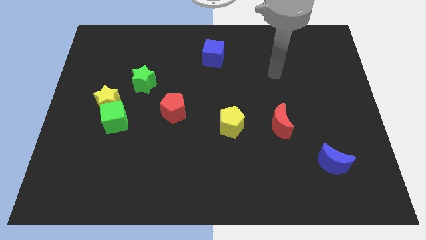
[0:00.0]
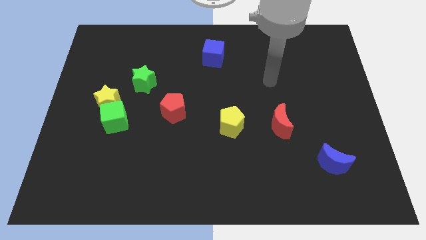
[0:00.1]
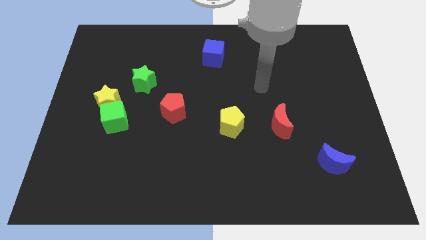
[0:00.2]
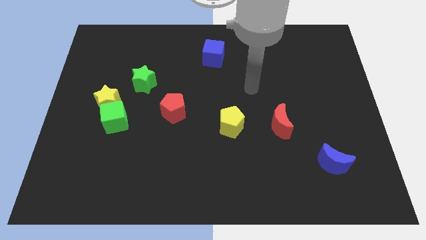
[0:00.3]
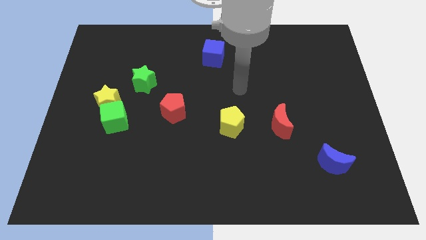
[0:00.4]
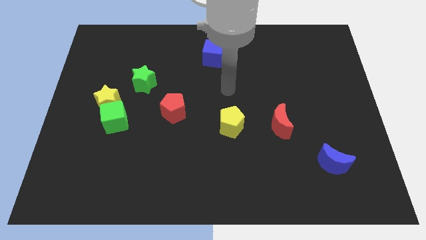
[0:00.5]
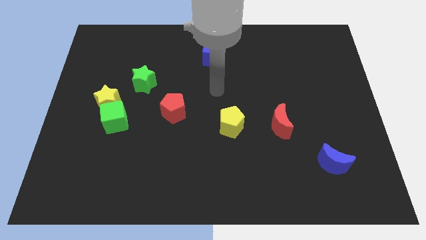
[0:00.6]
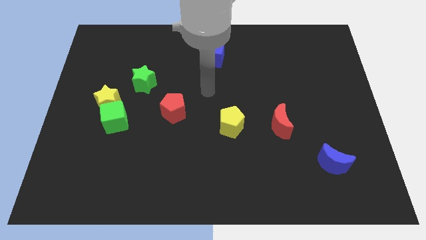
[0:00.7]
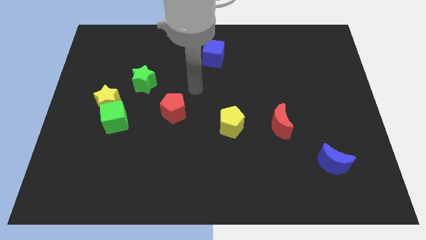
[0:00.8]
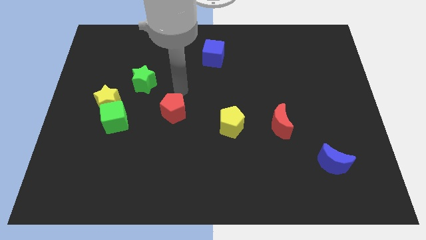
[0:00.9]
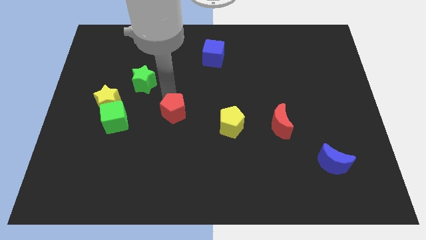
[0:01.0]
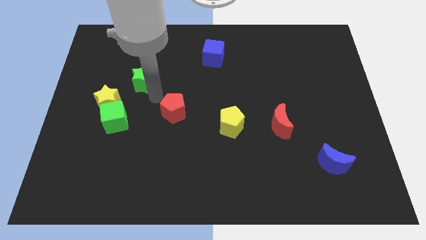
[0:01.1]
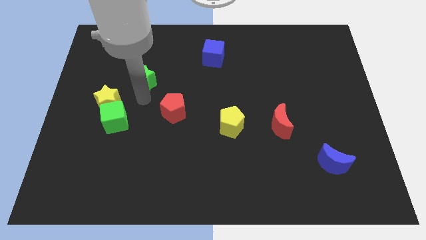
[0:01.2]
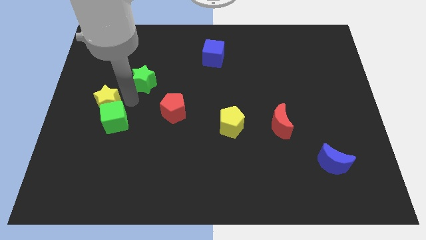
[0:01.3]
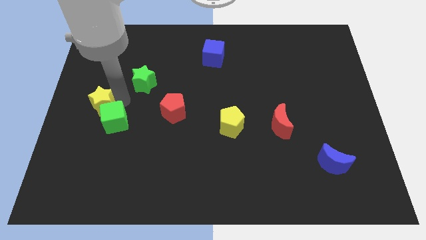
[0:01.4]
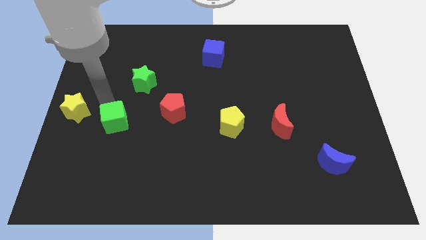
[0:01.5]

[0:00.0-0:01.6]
separate the green cube from the yellow star

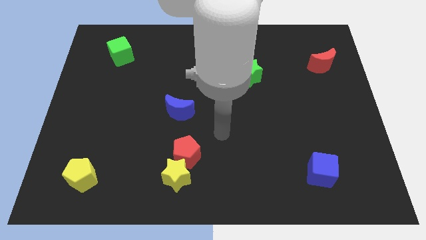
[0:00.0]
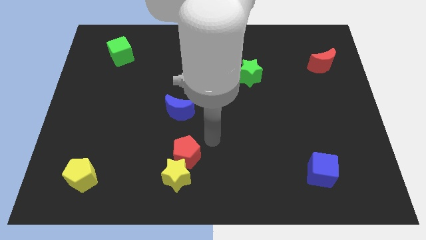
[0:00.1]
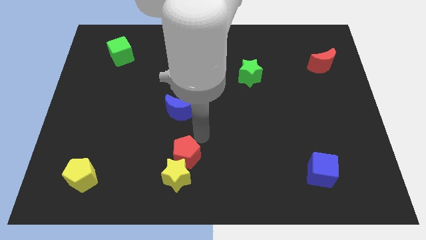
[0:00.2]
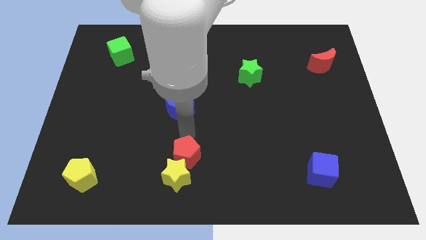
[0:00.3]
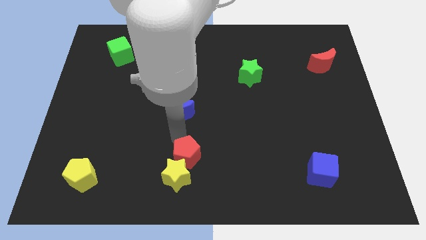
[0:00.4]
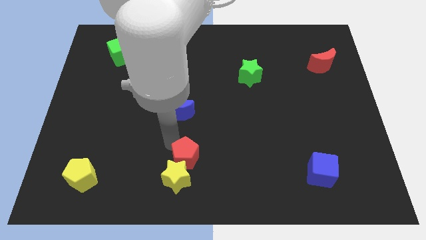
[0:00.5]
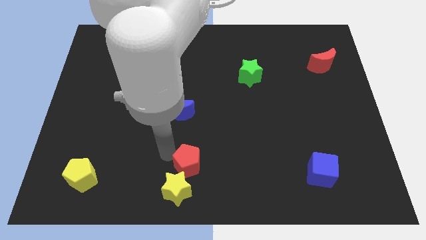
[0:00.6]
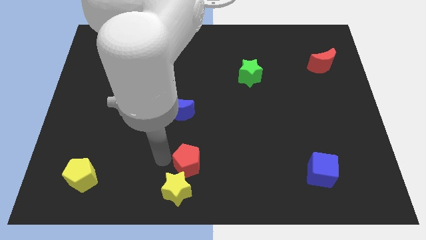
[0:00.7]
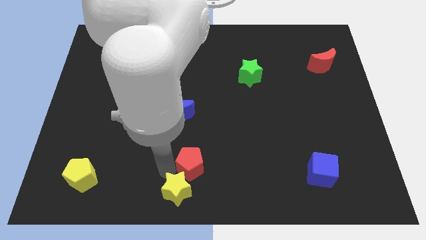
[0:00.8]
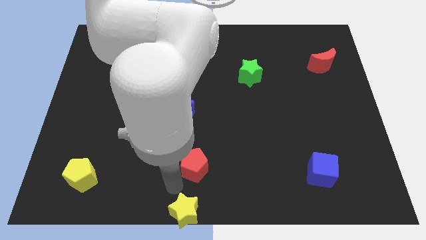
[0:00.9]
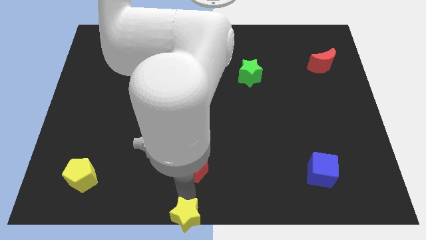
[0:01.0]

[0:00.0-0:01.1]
move the red pentagon away from the yellow star

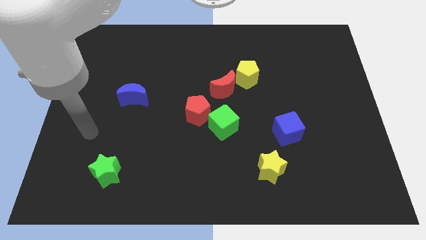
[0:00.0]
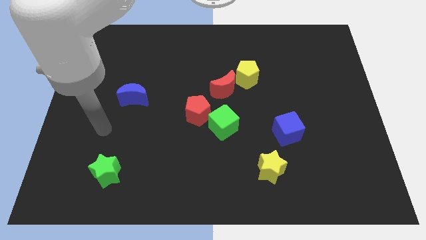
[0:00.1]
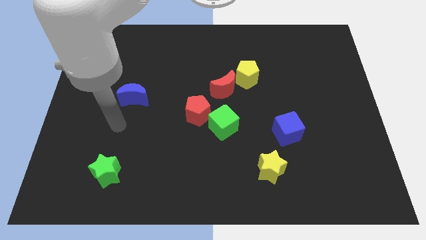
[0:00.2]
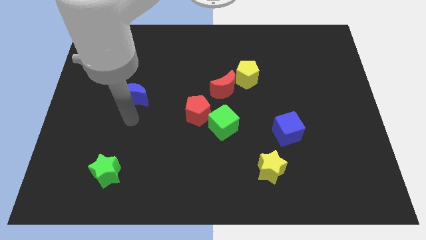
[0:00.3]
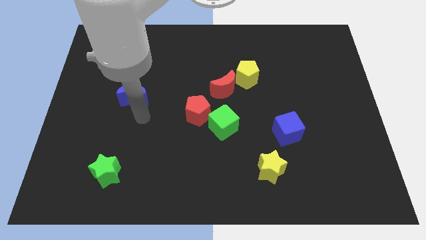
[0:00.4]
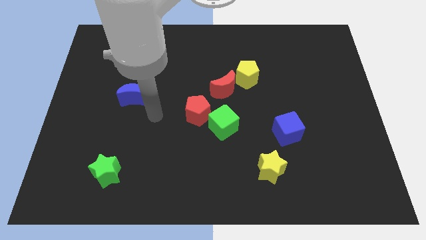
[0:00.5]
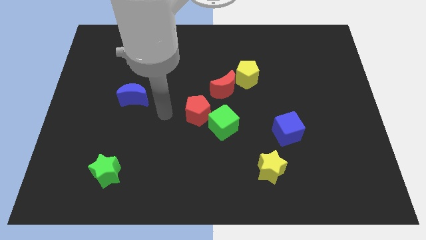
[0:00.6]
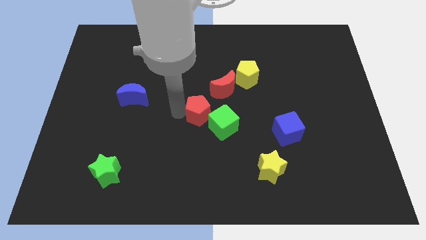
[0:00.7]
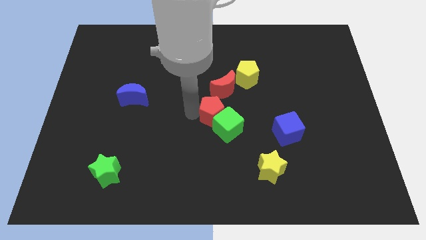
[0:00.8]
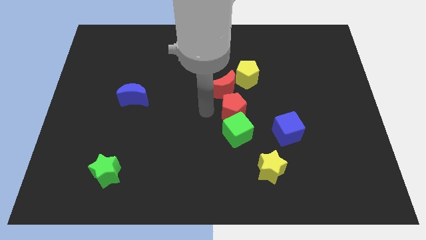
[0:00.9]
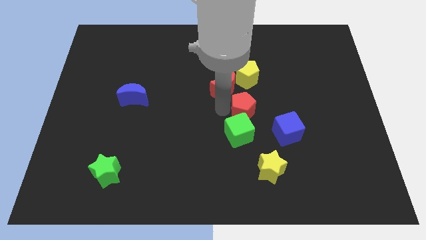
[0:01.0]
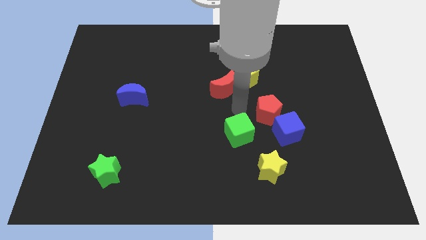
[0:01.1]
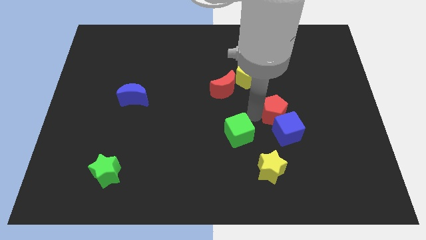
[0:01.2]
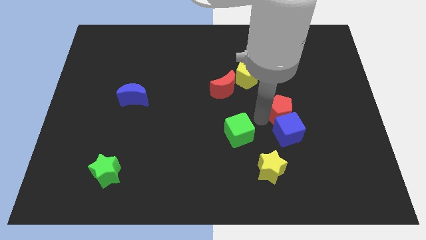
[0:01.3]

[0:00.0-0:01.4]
move the green cube away from the red pentagon

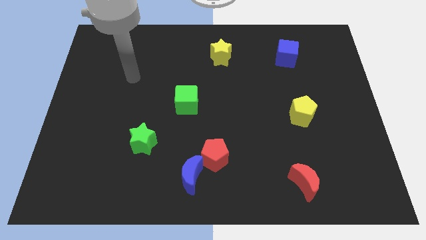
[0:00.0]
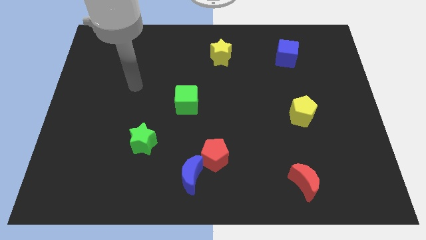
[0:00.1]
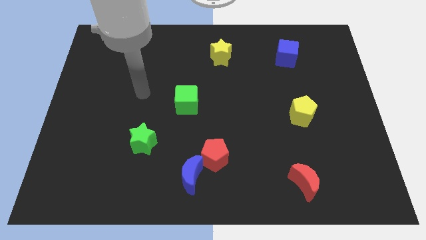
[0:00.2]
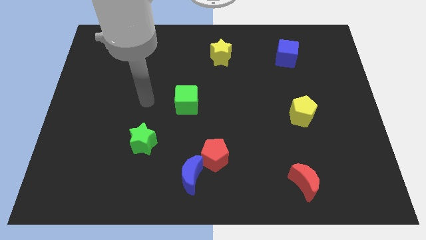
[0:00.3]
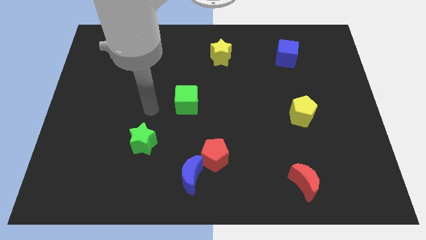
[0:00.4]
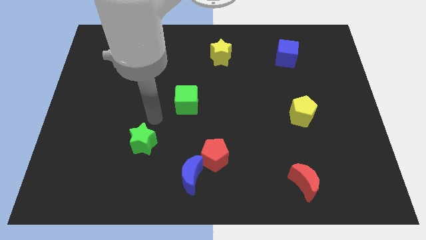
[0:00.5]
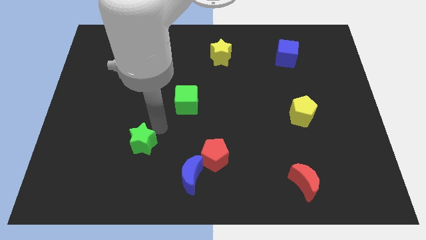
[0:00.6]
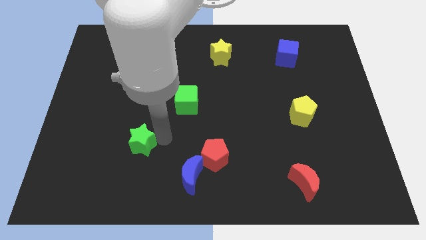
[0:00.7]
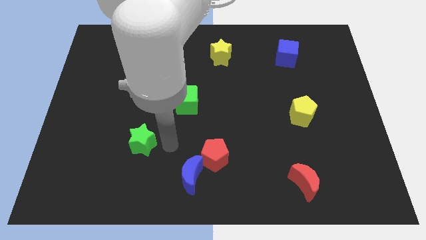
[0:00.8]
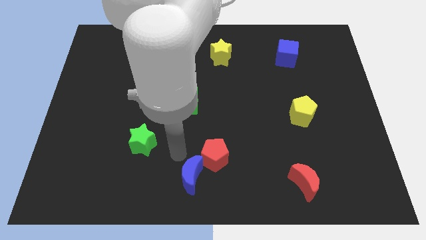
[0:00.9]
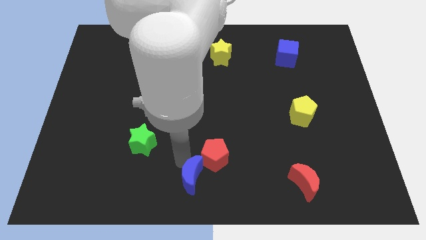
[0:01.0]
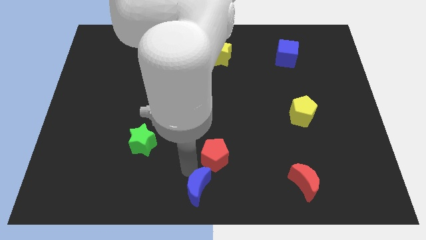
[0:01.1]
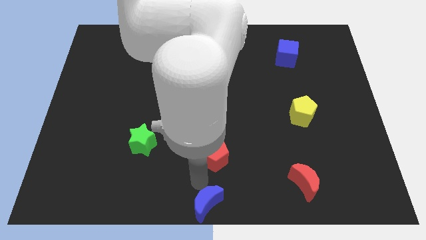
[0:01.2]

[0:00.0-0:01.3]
move the red pentagon away from the blue moon

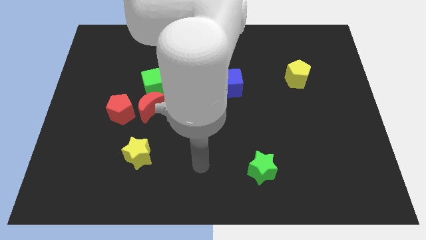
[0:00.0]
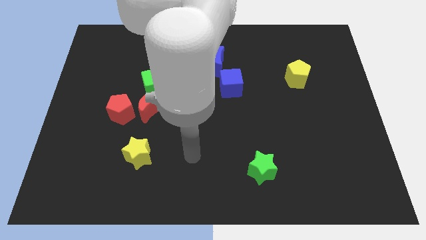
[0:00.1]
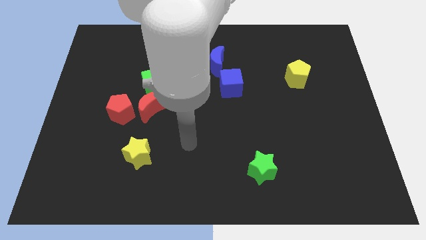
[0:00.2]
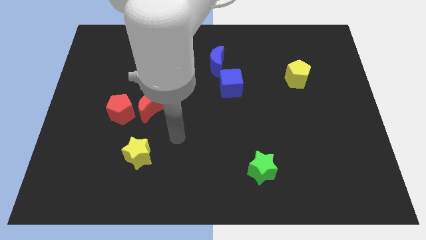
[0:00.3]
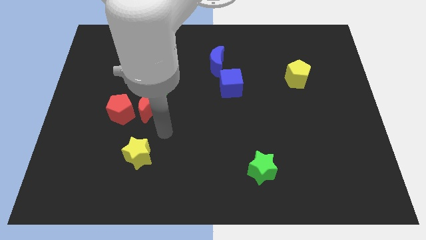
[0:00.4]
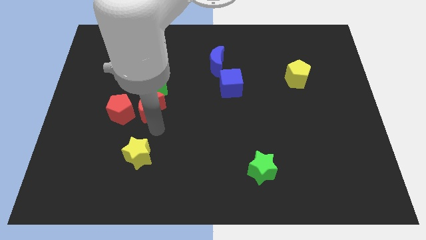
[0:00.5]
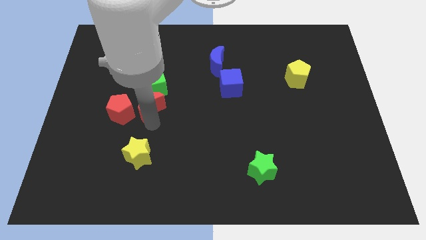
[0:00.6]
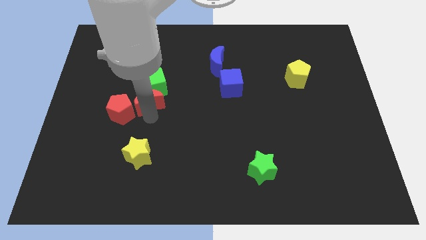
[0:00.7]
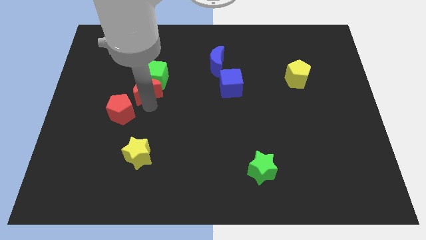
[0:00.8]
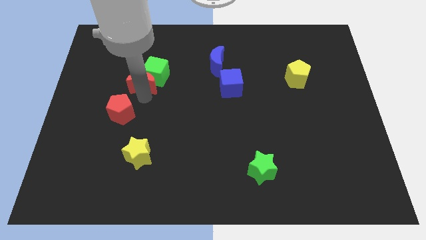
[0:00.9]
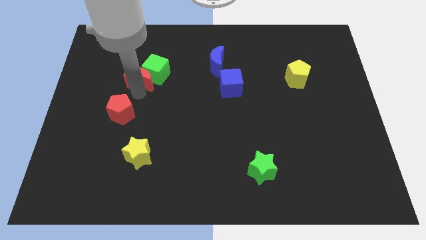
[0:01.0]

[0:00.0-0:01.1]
move the red pentagon away from the red moon

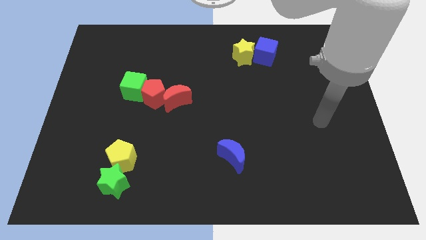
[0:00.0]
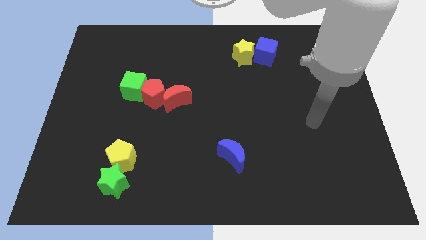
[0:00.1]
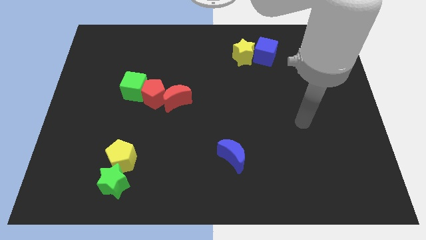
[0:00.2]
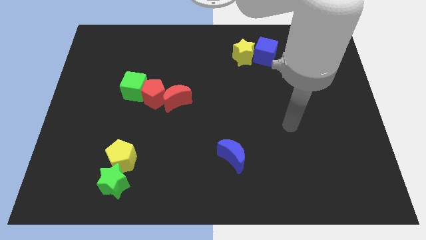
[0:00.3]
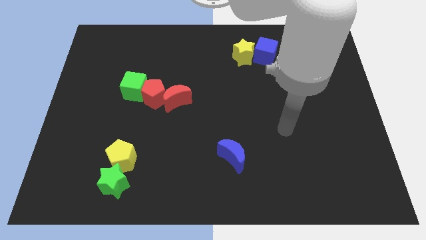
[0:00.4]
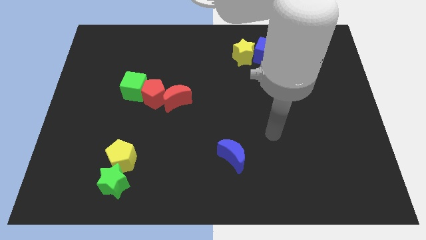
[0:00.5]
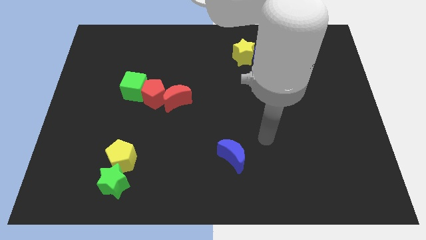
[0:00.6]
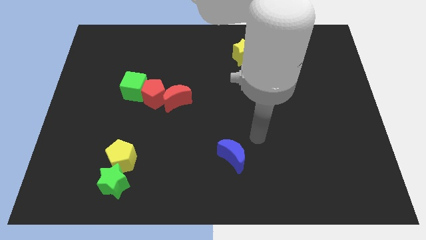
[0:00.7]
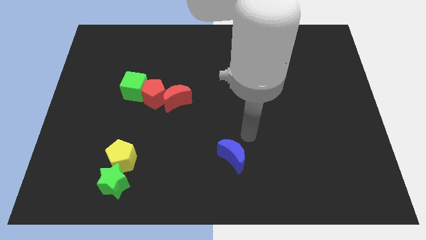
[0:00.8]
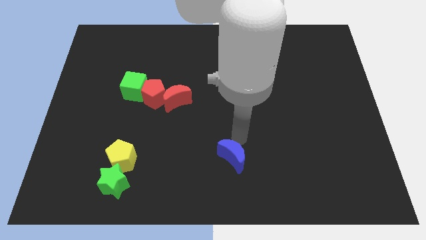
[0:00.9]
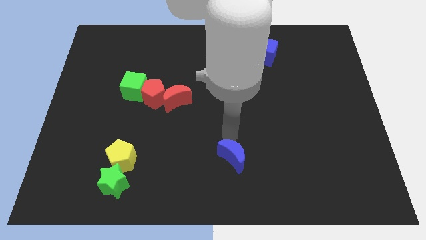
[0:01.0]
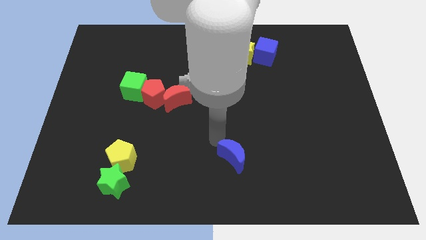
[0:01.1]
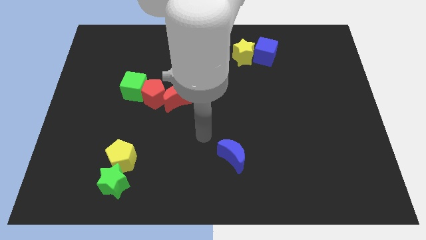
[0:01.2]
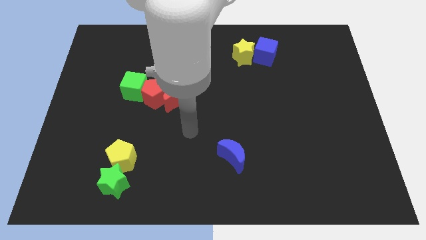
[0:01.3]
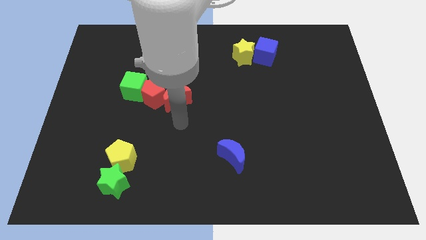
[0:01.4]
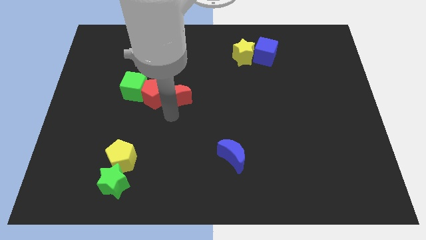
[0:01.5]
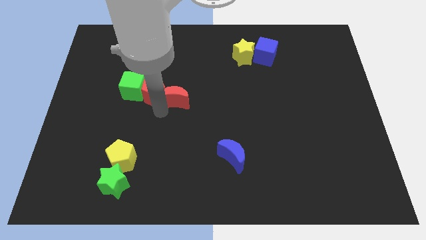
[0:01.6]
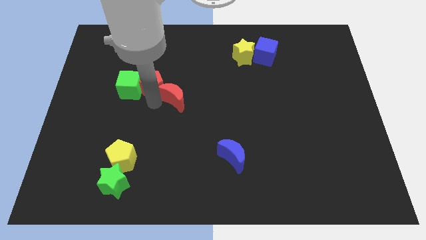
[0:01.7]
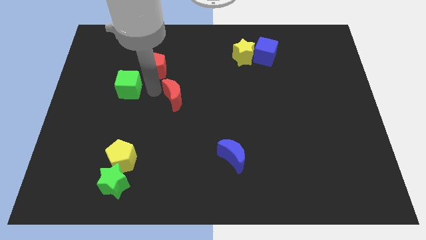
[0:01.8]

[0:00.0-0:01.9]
pull the red moon apart from the red pentagon

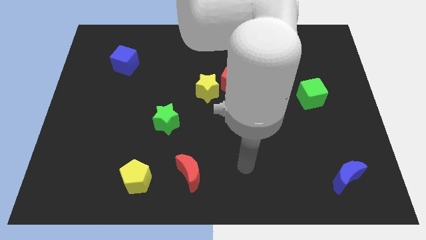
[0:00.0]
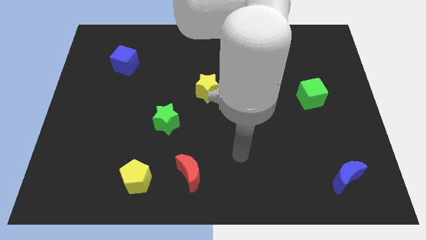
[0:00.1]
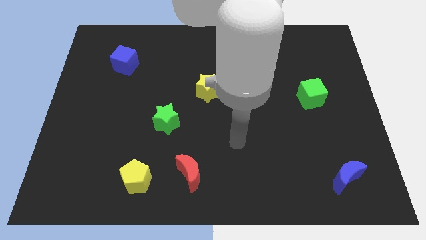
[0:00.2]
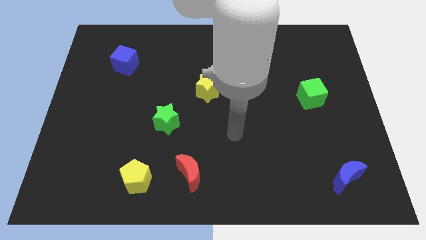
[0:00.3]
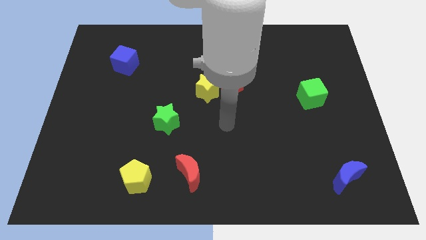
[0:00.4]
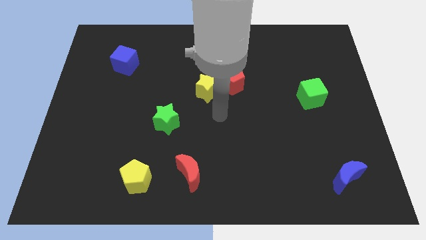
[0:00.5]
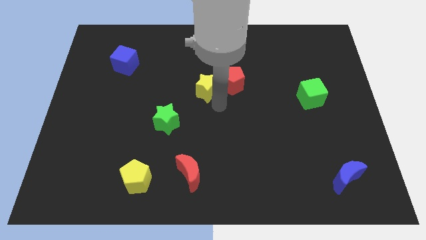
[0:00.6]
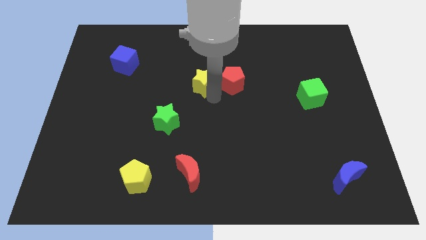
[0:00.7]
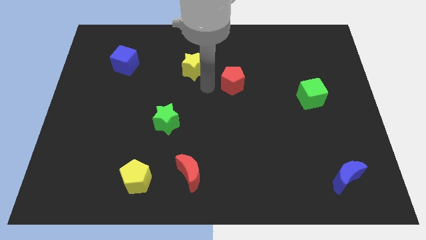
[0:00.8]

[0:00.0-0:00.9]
pull the red pentagon apart from the yellow star

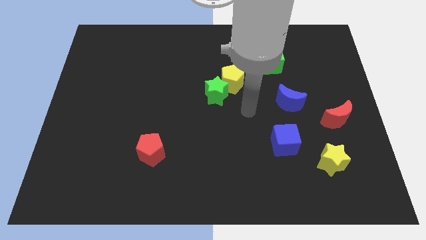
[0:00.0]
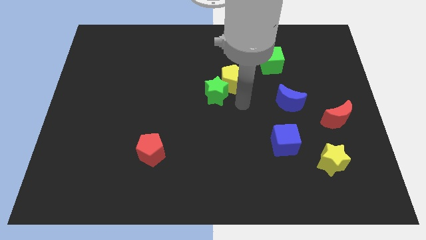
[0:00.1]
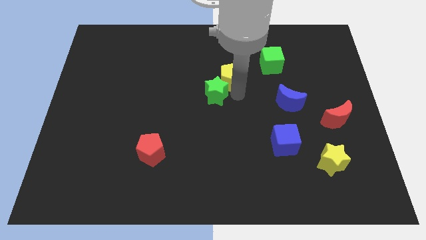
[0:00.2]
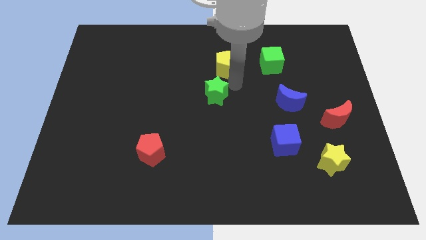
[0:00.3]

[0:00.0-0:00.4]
move the green star away from the yellow pentagon
